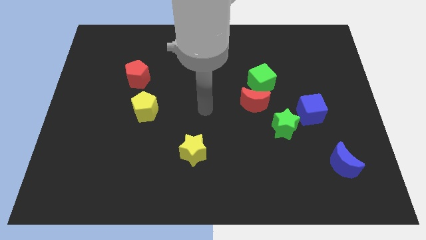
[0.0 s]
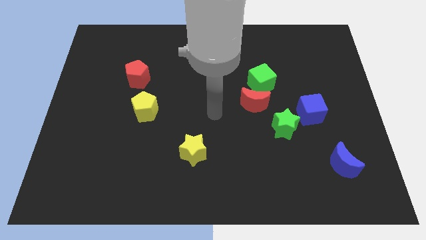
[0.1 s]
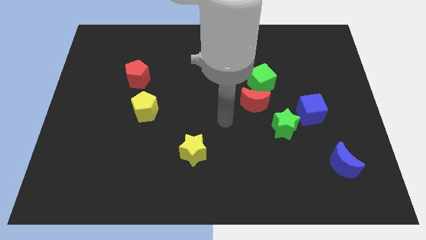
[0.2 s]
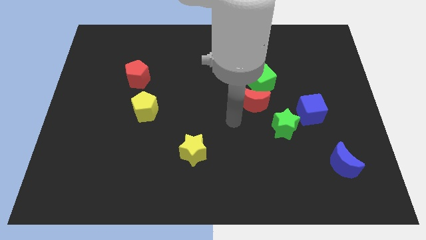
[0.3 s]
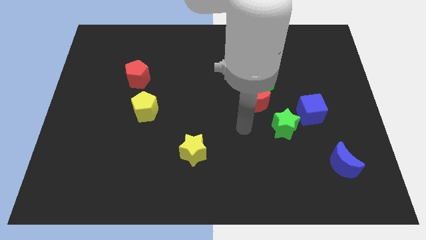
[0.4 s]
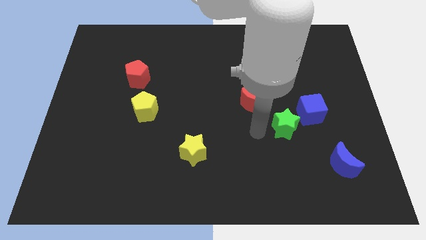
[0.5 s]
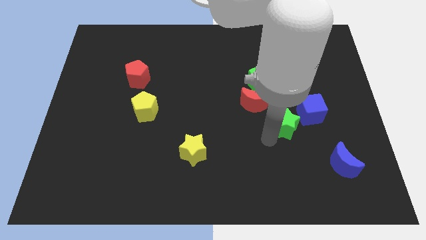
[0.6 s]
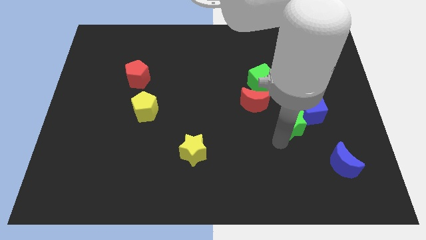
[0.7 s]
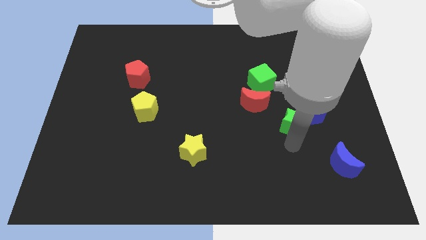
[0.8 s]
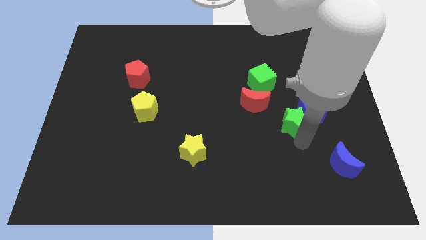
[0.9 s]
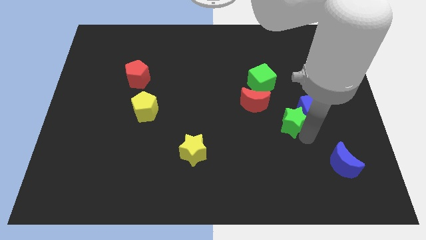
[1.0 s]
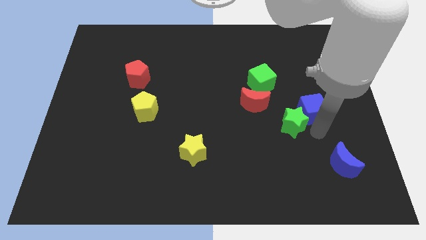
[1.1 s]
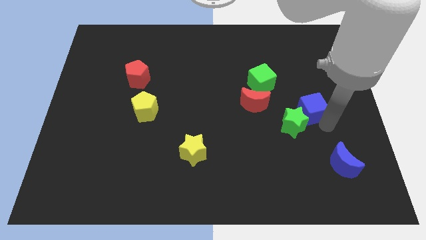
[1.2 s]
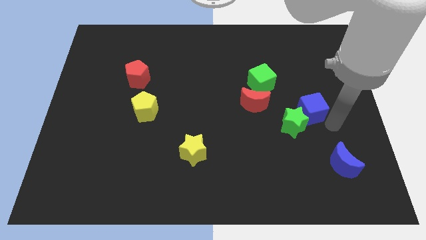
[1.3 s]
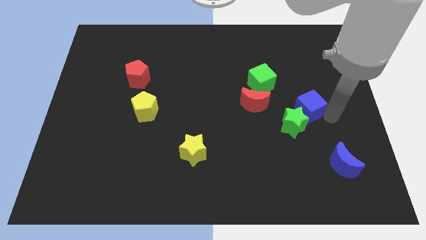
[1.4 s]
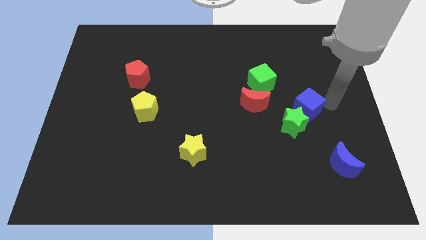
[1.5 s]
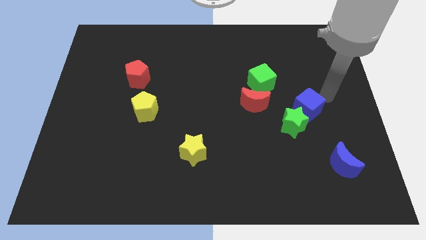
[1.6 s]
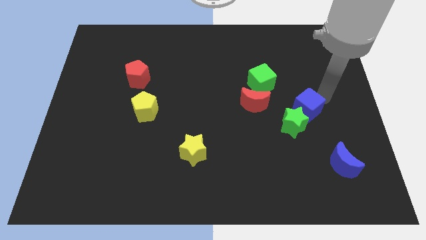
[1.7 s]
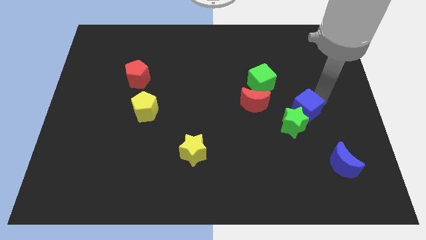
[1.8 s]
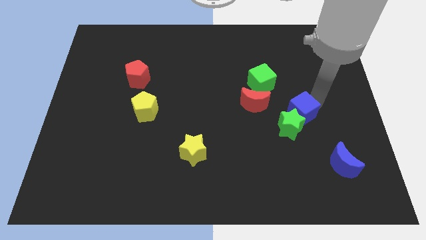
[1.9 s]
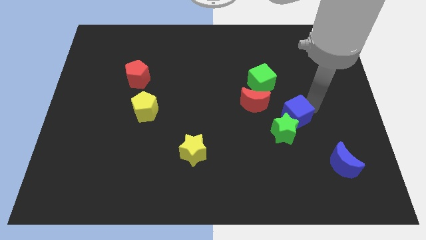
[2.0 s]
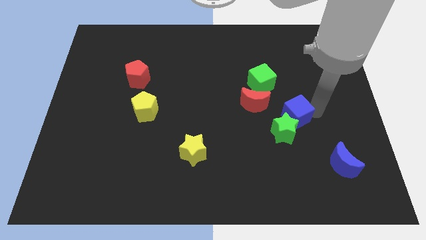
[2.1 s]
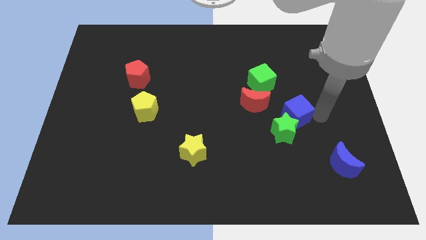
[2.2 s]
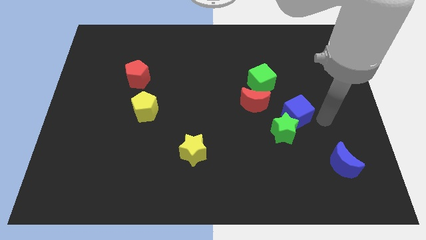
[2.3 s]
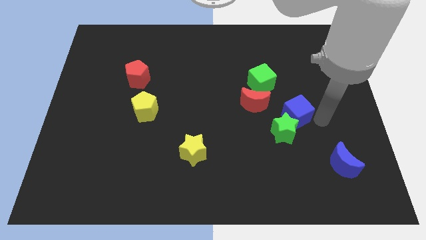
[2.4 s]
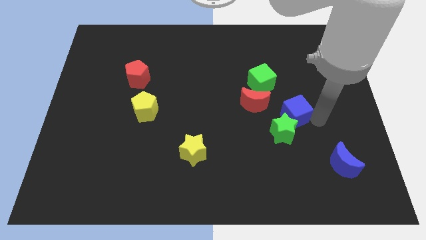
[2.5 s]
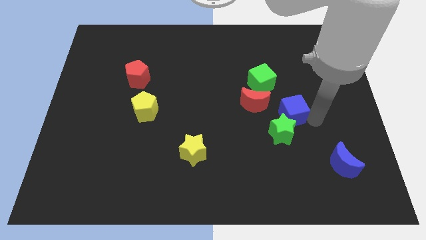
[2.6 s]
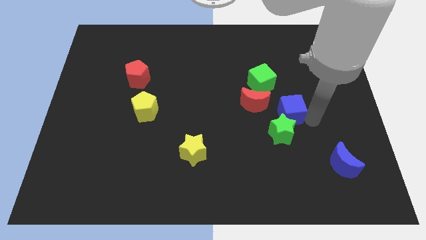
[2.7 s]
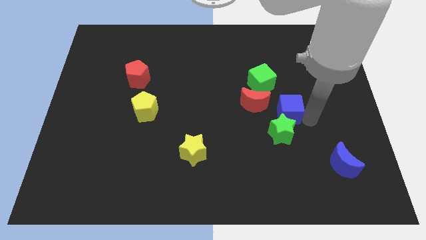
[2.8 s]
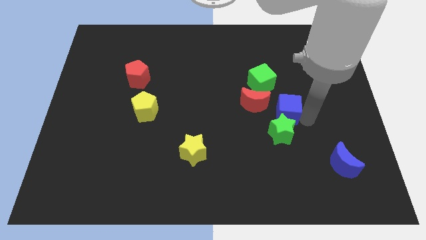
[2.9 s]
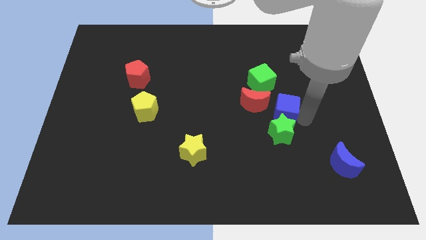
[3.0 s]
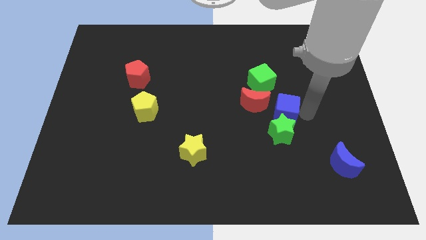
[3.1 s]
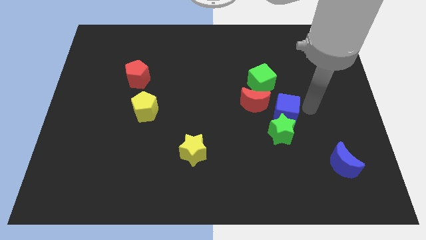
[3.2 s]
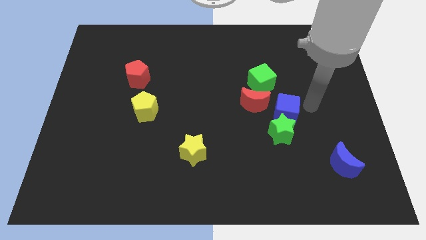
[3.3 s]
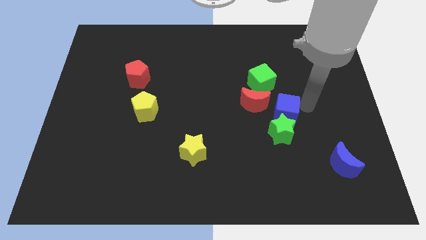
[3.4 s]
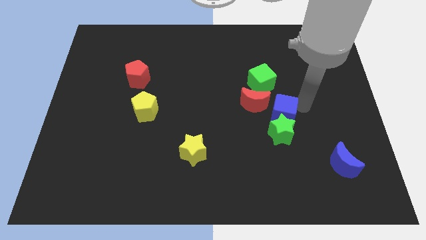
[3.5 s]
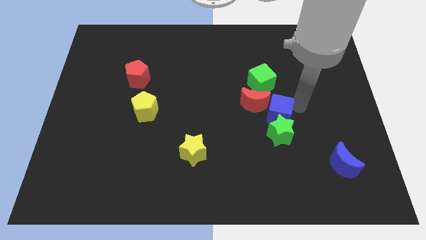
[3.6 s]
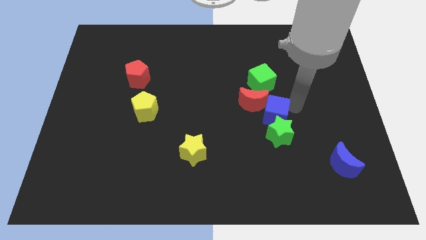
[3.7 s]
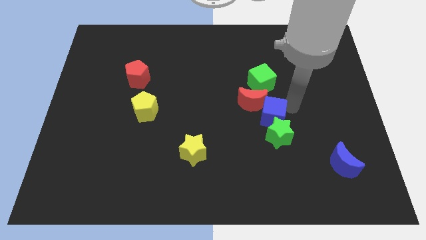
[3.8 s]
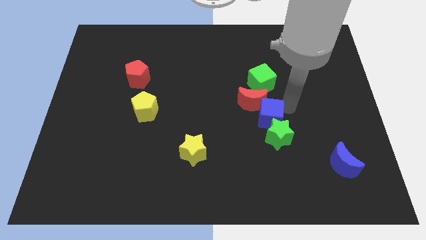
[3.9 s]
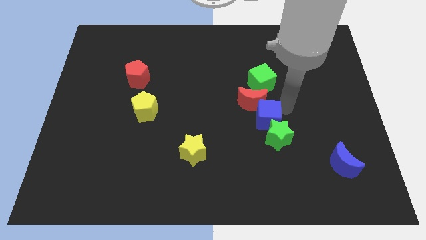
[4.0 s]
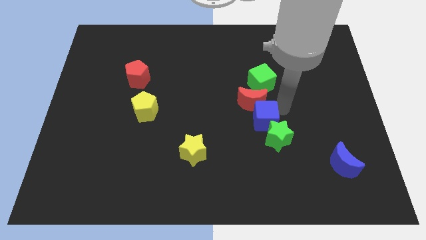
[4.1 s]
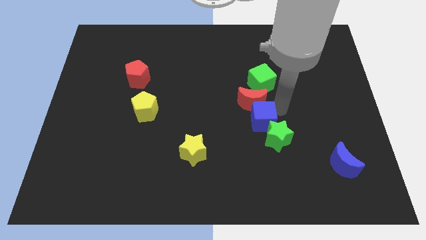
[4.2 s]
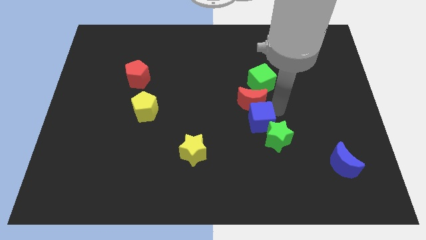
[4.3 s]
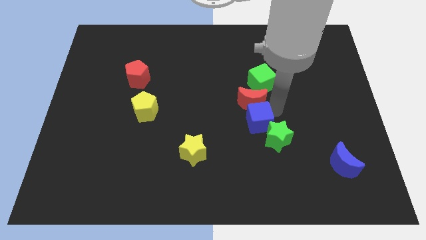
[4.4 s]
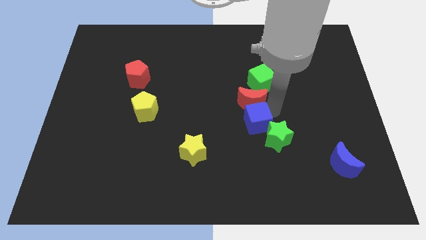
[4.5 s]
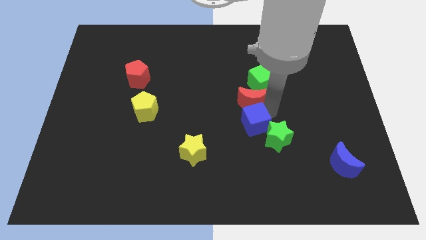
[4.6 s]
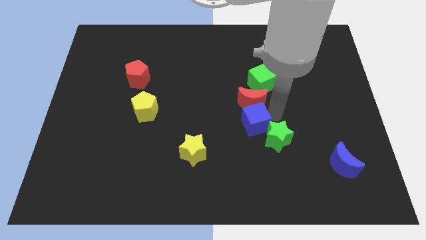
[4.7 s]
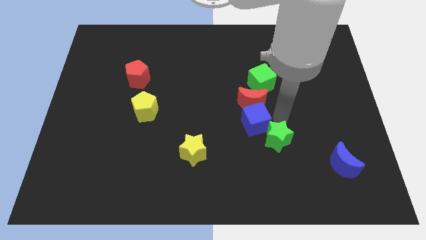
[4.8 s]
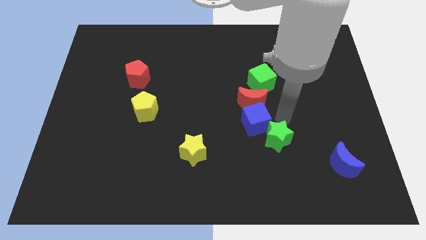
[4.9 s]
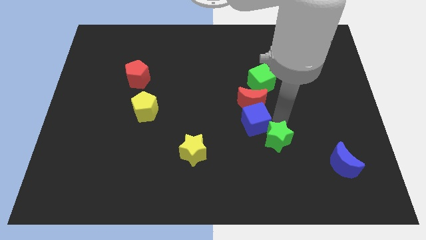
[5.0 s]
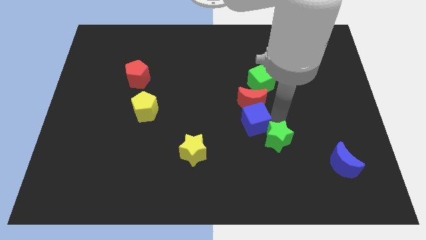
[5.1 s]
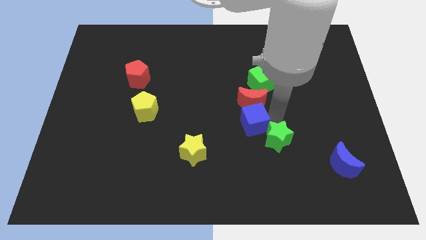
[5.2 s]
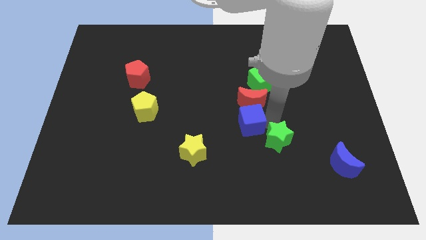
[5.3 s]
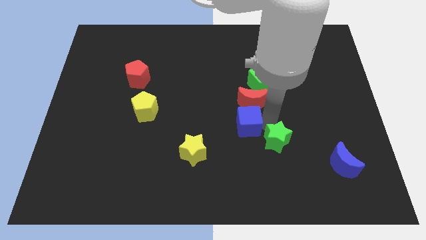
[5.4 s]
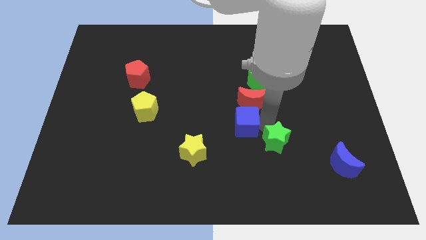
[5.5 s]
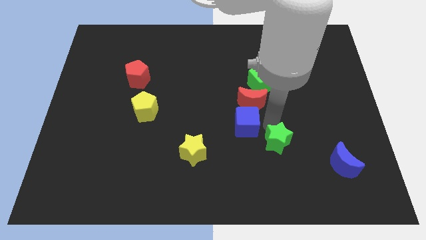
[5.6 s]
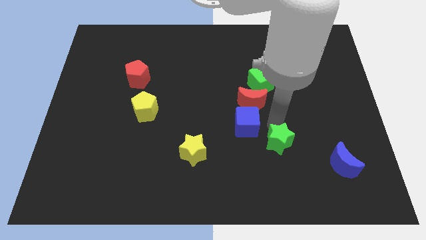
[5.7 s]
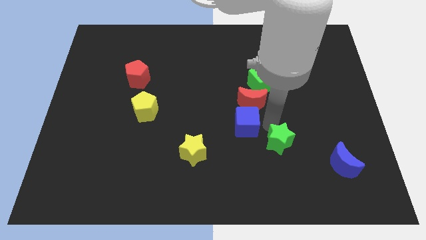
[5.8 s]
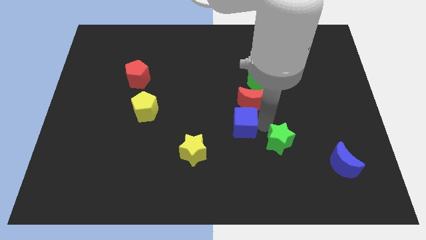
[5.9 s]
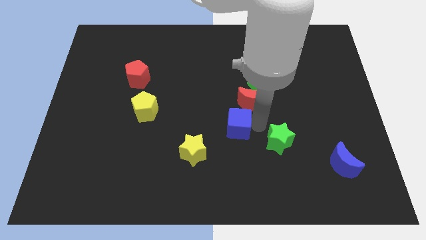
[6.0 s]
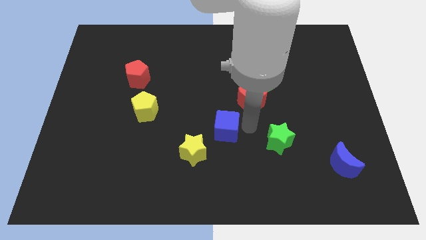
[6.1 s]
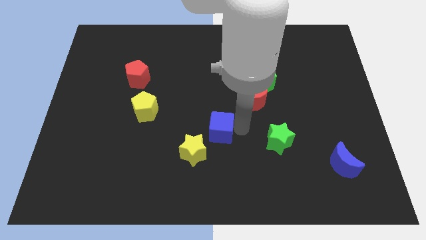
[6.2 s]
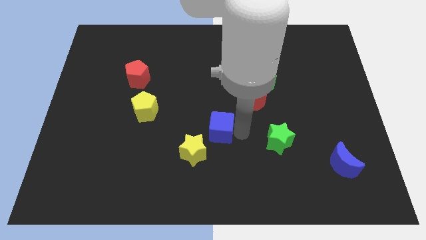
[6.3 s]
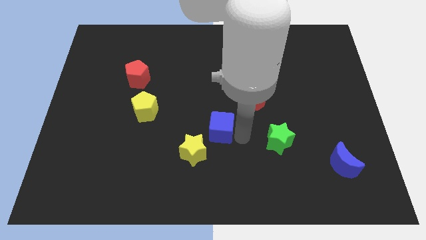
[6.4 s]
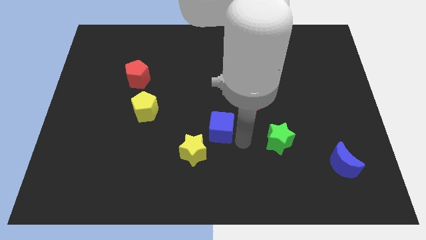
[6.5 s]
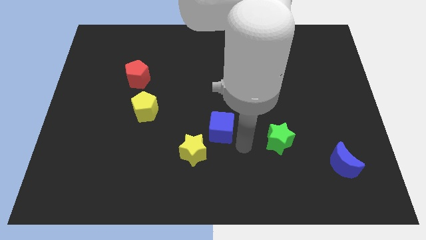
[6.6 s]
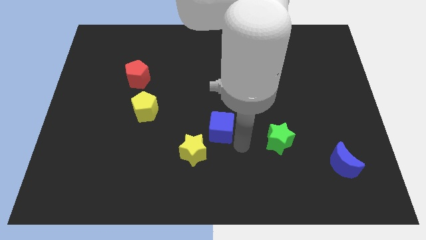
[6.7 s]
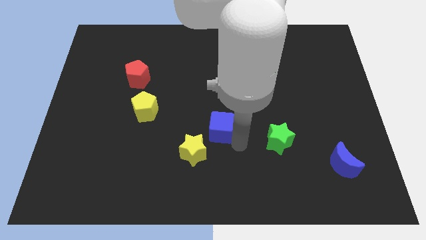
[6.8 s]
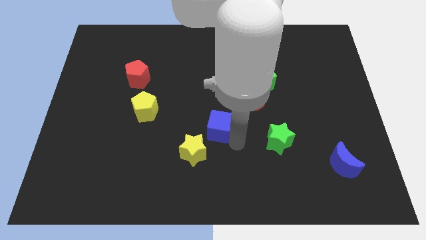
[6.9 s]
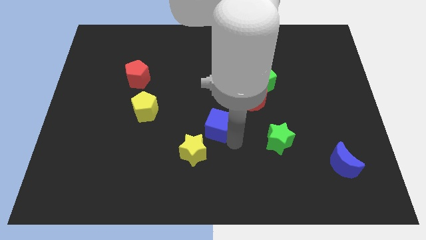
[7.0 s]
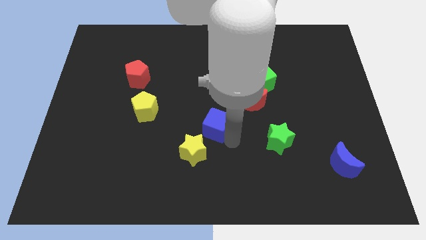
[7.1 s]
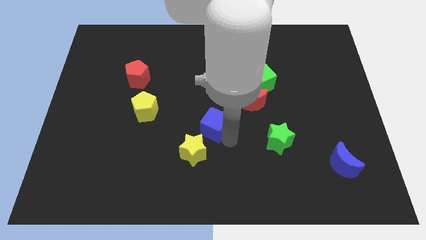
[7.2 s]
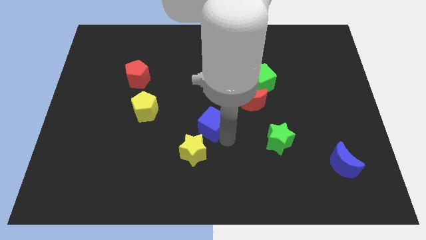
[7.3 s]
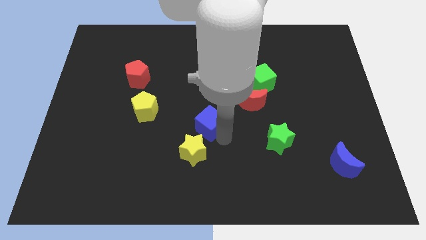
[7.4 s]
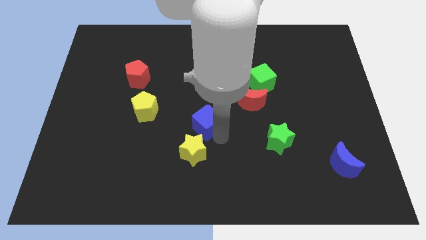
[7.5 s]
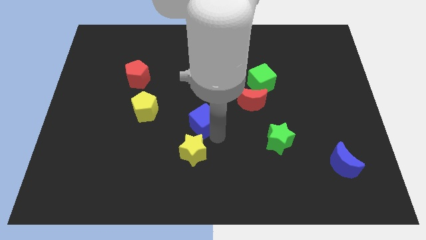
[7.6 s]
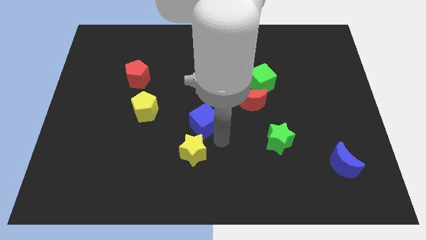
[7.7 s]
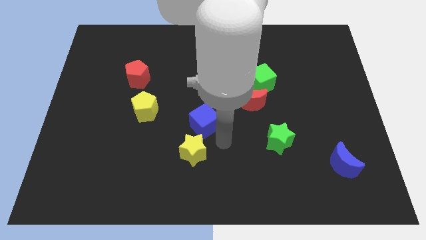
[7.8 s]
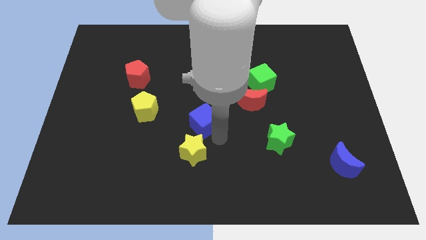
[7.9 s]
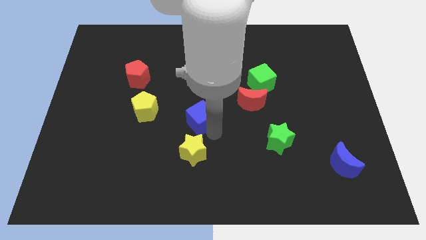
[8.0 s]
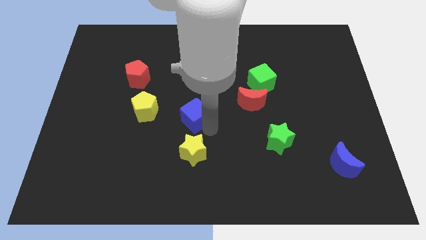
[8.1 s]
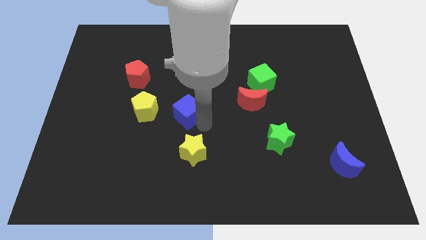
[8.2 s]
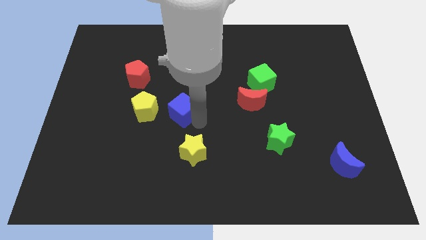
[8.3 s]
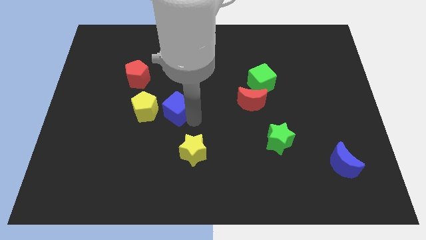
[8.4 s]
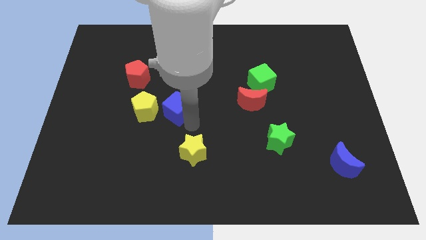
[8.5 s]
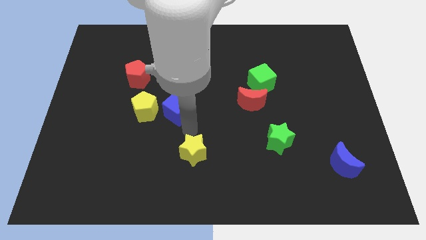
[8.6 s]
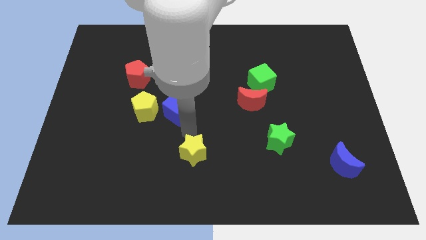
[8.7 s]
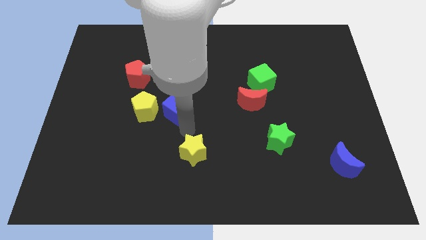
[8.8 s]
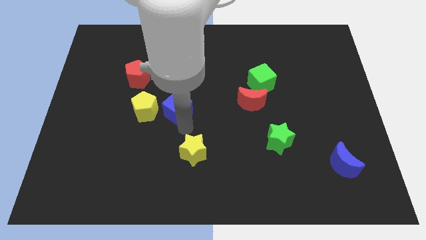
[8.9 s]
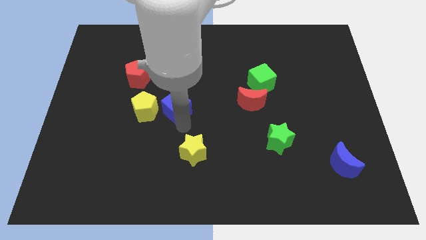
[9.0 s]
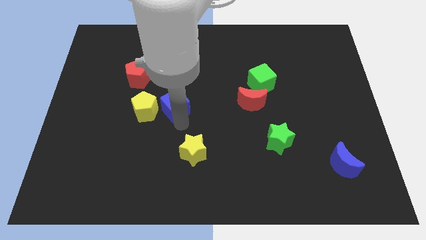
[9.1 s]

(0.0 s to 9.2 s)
put the blue cube to the top right of the yellow pentagon
